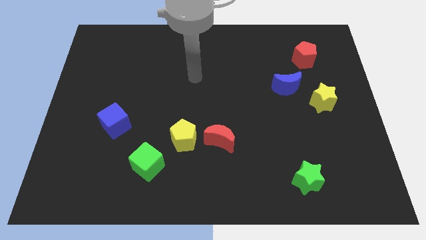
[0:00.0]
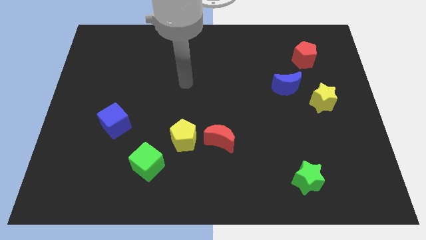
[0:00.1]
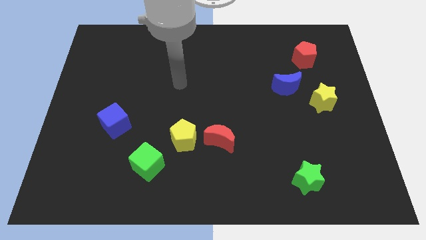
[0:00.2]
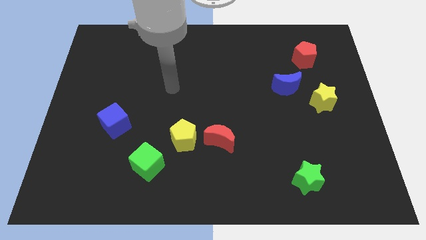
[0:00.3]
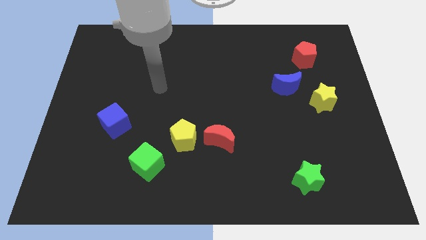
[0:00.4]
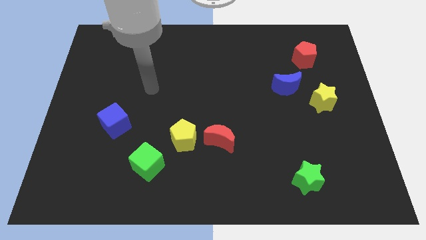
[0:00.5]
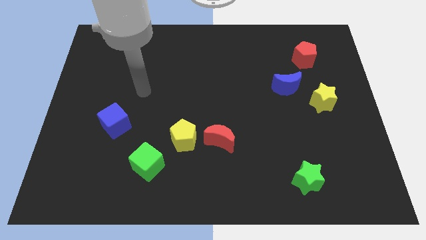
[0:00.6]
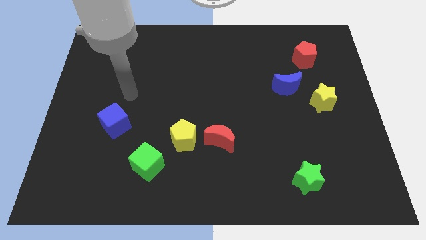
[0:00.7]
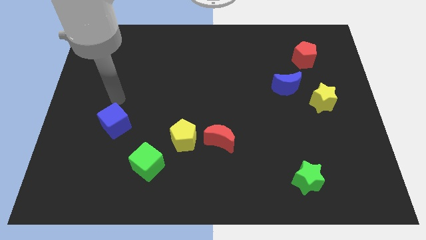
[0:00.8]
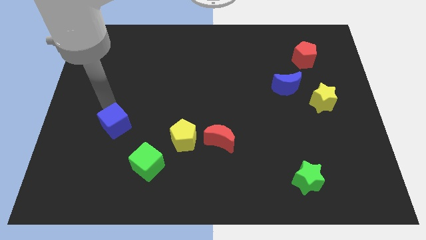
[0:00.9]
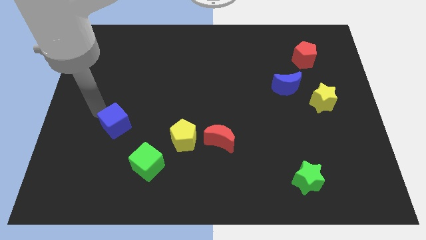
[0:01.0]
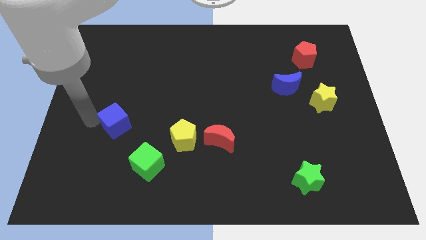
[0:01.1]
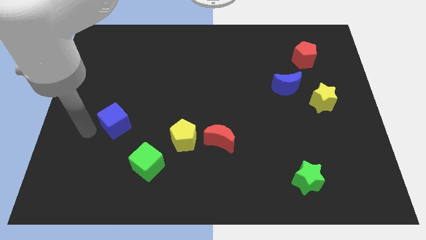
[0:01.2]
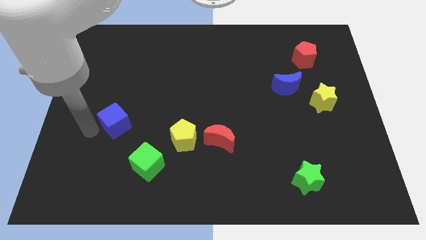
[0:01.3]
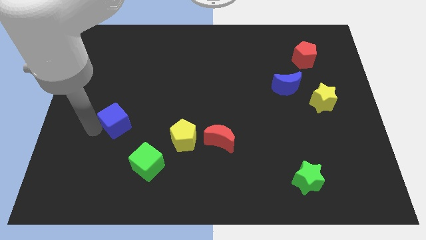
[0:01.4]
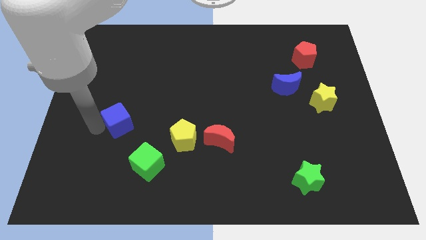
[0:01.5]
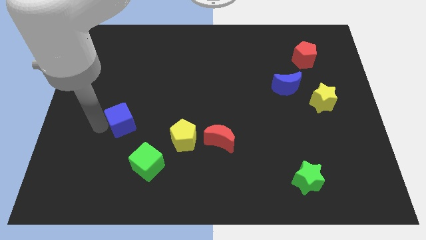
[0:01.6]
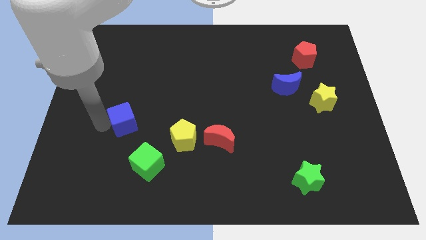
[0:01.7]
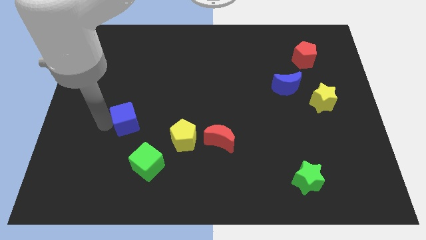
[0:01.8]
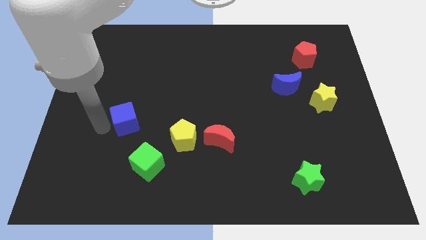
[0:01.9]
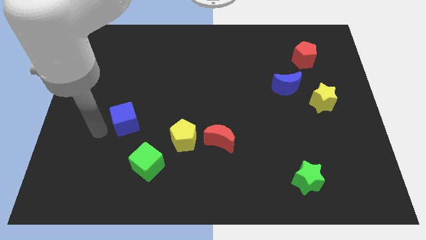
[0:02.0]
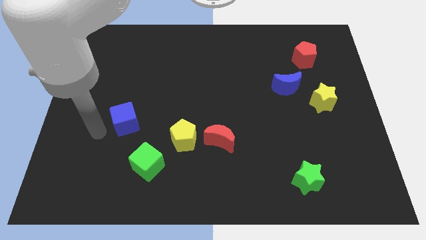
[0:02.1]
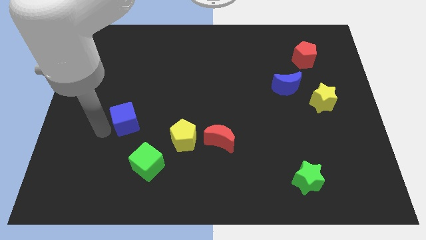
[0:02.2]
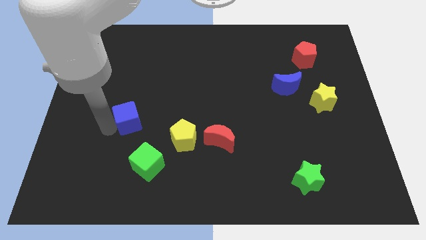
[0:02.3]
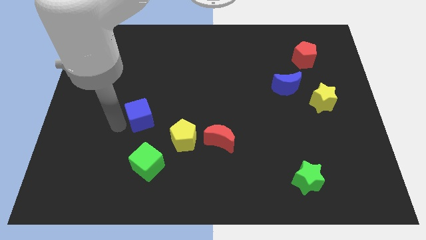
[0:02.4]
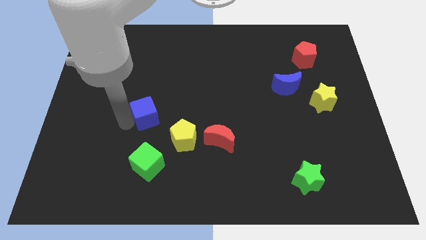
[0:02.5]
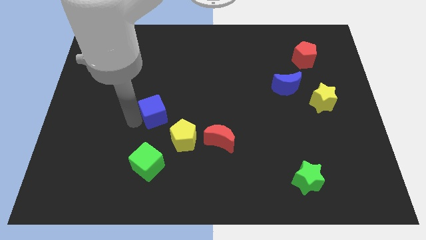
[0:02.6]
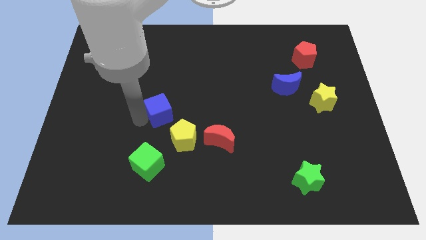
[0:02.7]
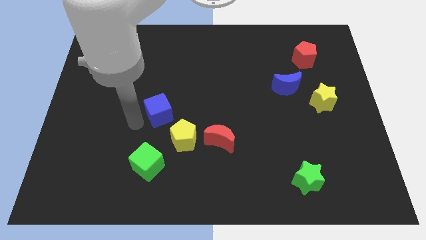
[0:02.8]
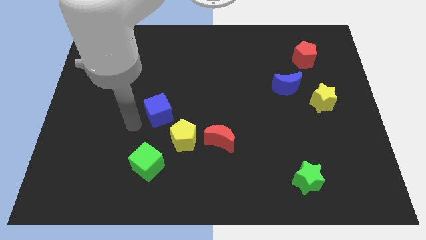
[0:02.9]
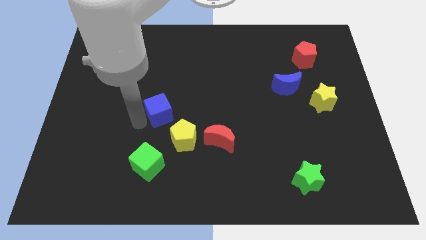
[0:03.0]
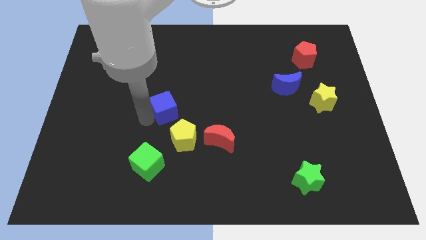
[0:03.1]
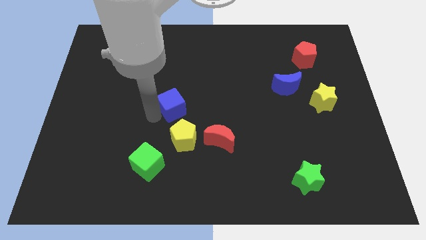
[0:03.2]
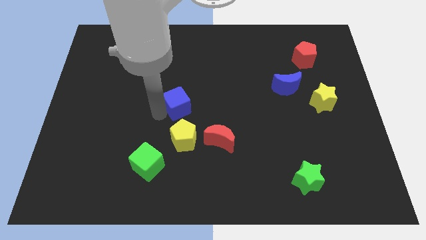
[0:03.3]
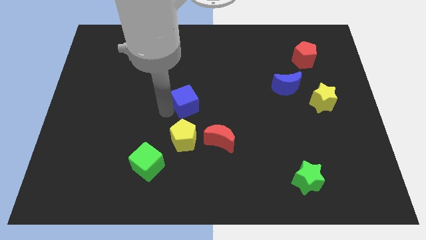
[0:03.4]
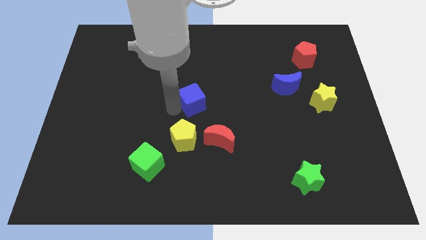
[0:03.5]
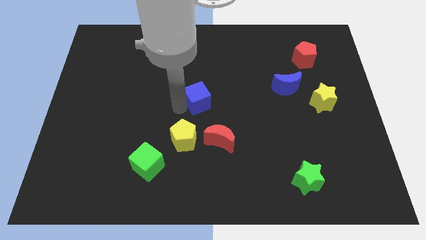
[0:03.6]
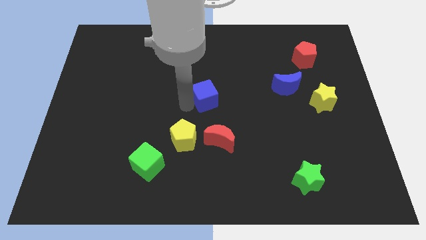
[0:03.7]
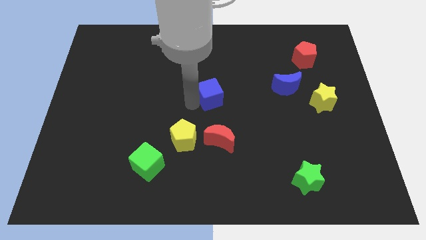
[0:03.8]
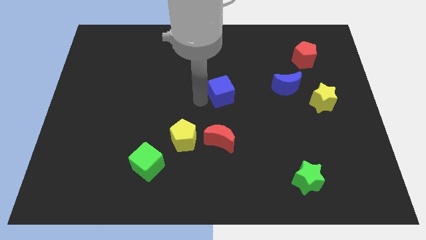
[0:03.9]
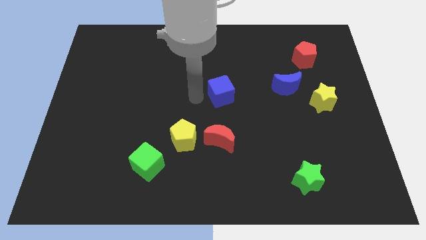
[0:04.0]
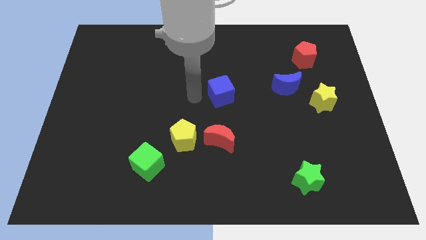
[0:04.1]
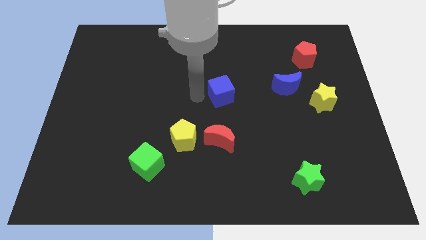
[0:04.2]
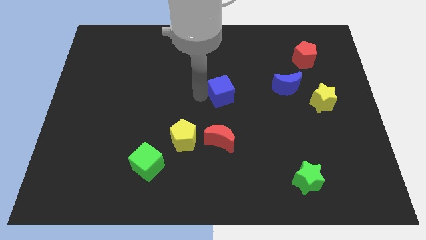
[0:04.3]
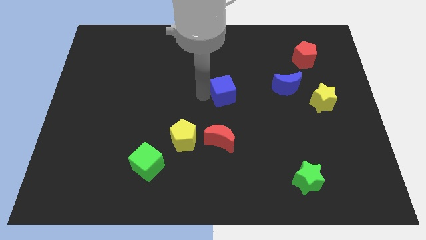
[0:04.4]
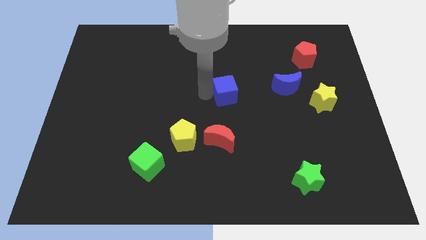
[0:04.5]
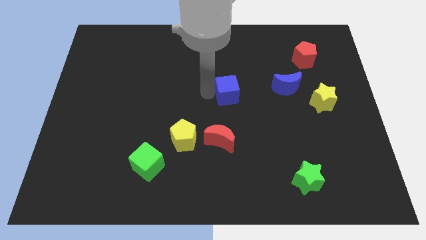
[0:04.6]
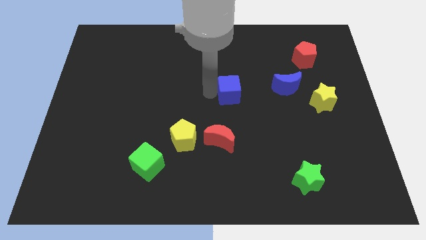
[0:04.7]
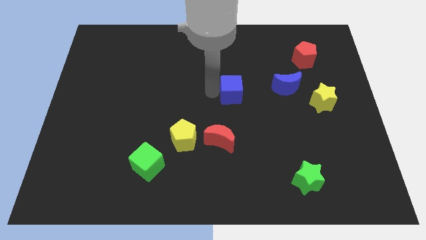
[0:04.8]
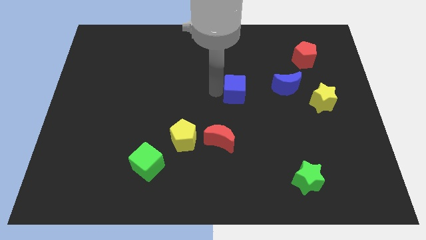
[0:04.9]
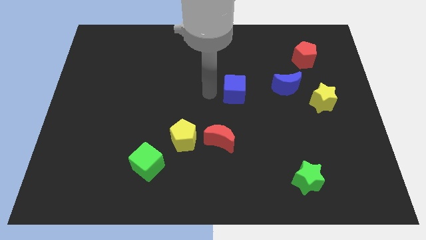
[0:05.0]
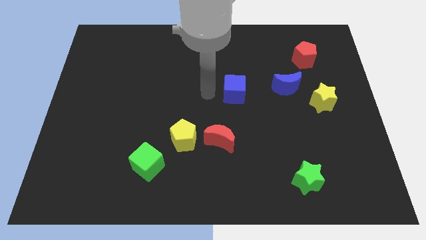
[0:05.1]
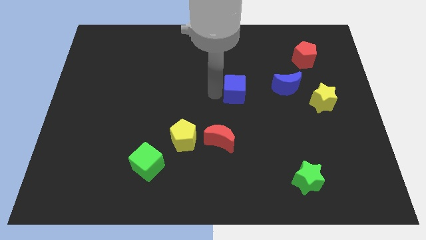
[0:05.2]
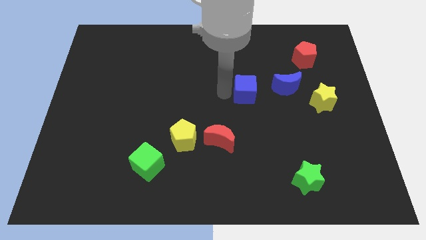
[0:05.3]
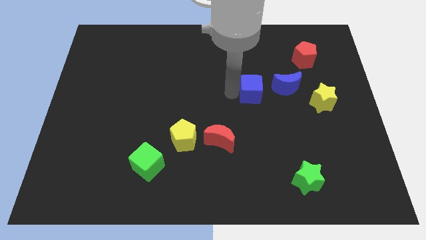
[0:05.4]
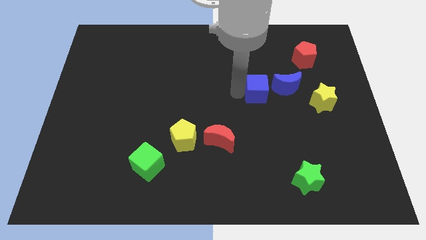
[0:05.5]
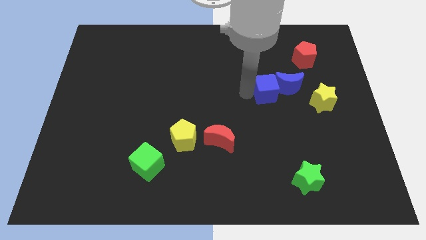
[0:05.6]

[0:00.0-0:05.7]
put the blue cube close to the blue moon
